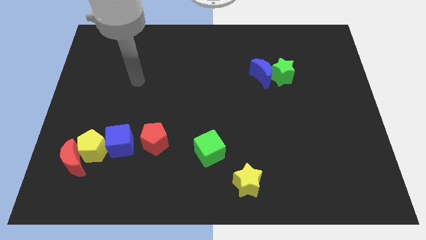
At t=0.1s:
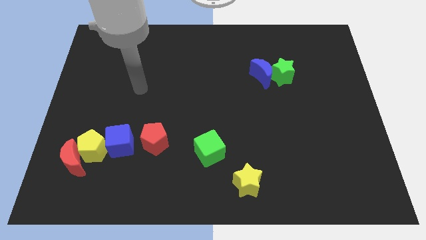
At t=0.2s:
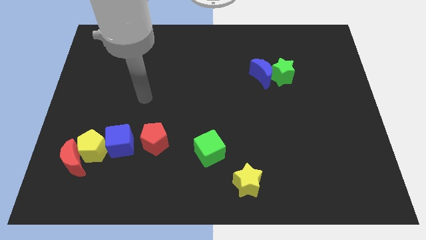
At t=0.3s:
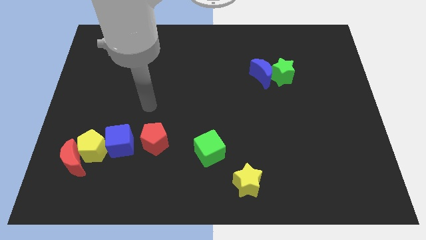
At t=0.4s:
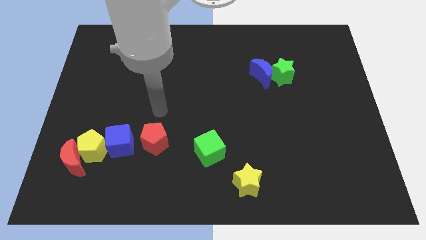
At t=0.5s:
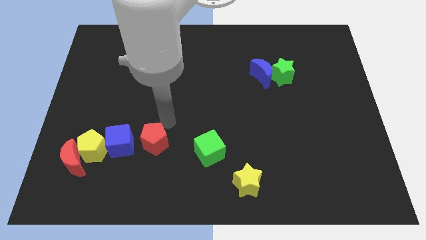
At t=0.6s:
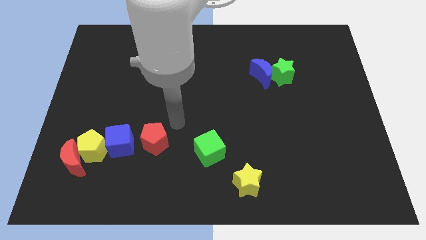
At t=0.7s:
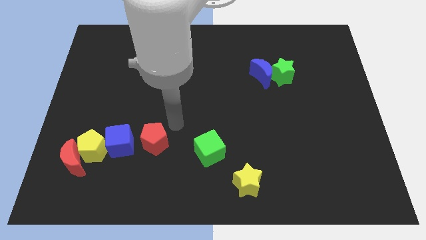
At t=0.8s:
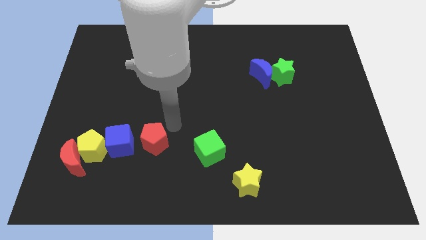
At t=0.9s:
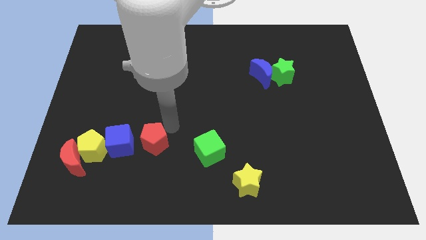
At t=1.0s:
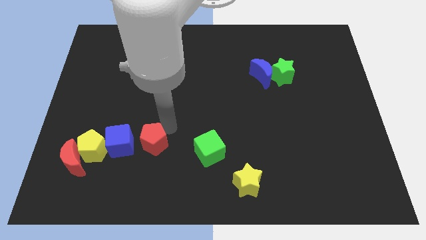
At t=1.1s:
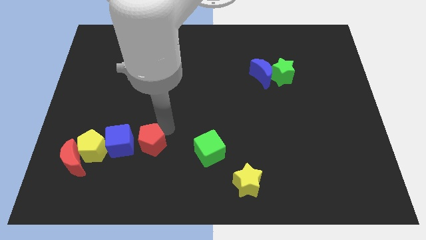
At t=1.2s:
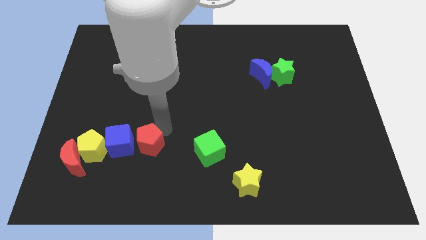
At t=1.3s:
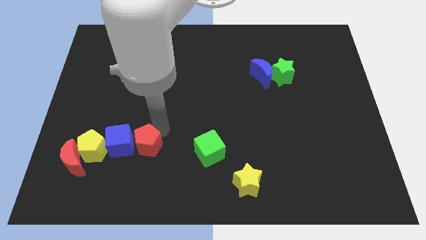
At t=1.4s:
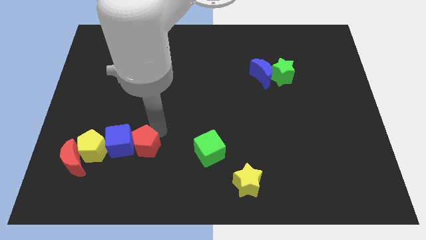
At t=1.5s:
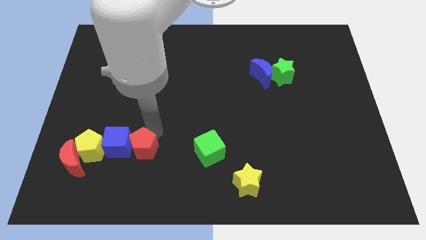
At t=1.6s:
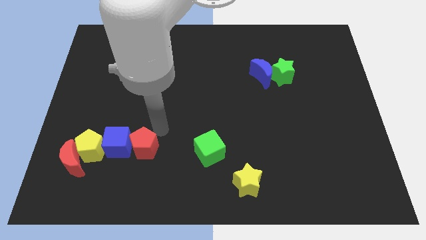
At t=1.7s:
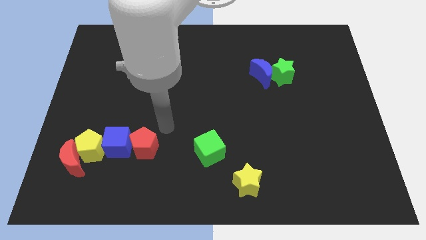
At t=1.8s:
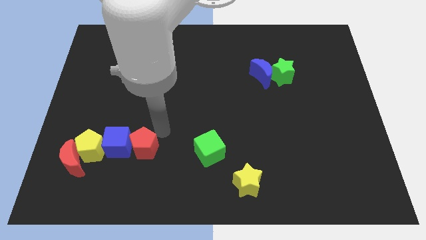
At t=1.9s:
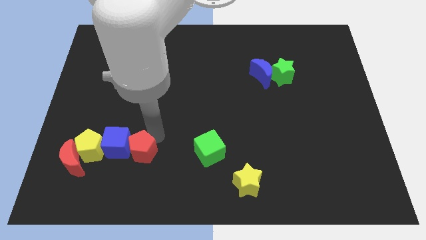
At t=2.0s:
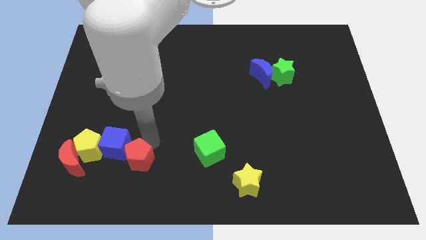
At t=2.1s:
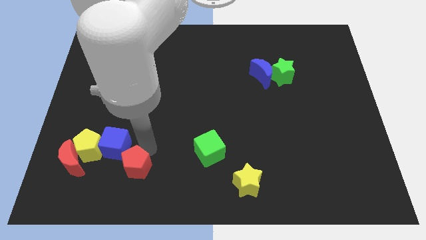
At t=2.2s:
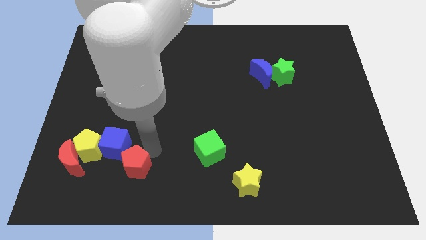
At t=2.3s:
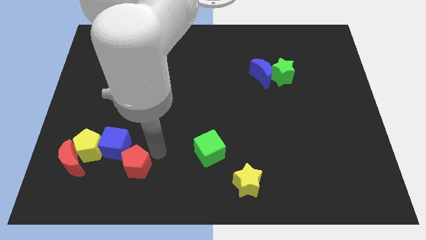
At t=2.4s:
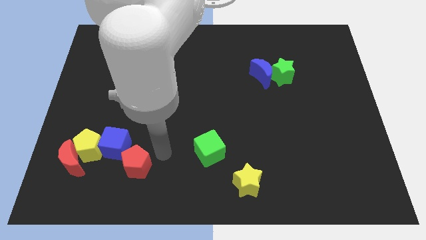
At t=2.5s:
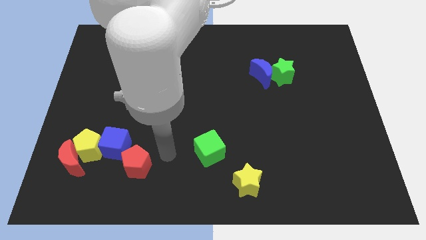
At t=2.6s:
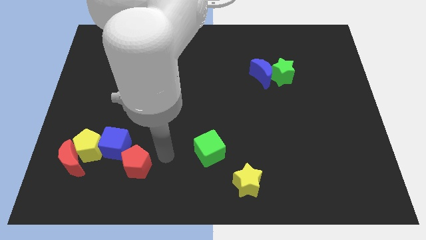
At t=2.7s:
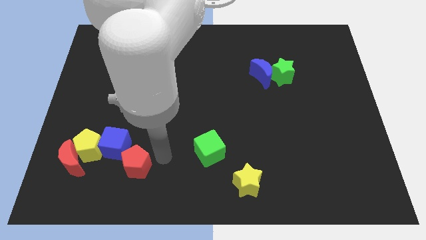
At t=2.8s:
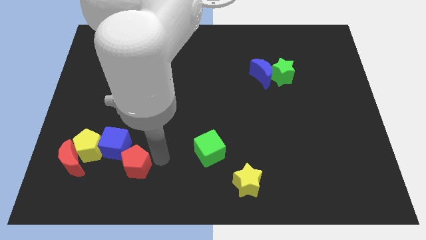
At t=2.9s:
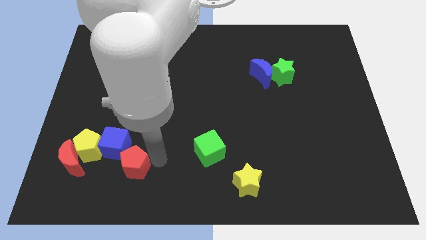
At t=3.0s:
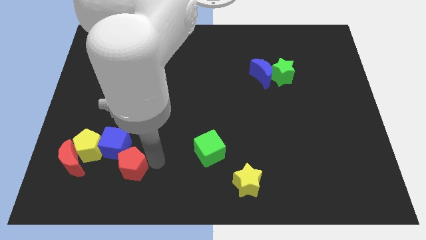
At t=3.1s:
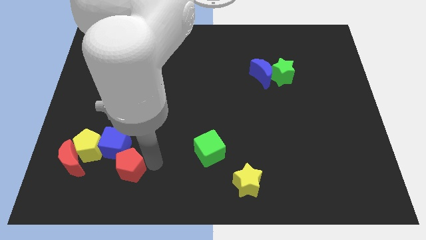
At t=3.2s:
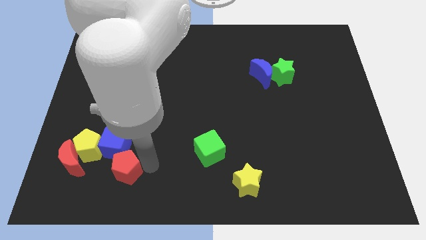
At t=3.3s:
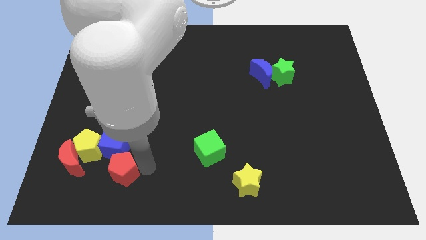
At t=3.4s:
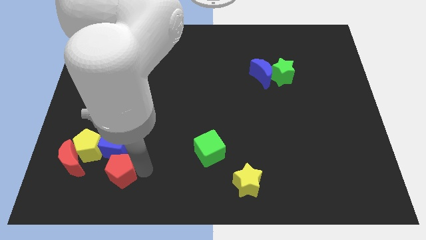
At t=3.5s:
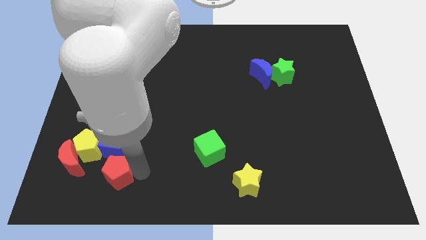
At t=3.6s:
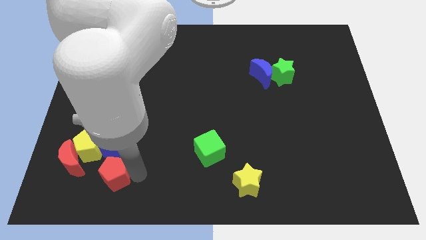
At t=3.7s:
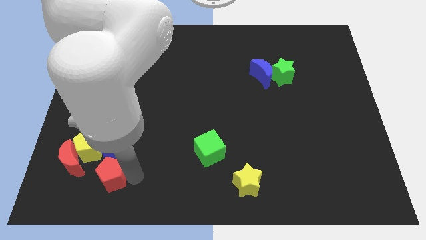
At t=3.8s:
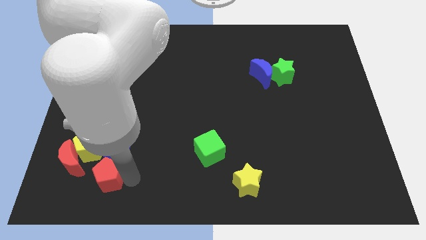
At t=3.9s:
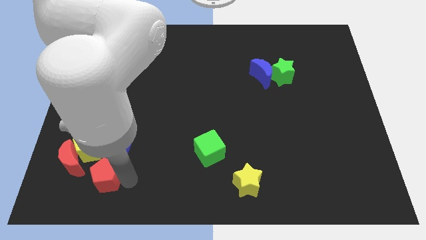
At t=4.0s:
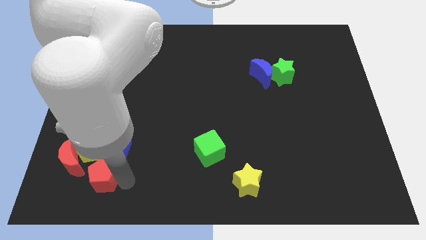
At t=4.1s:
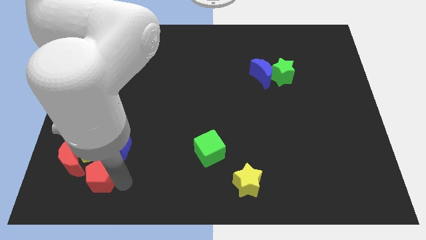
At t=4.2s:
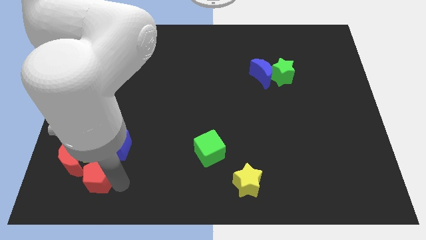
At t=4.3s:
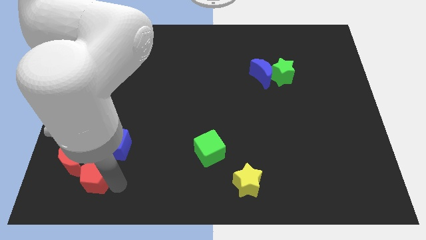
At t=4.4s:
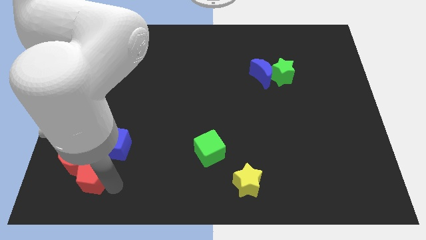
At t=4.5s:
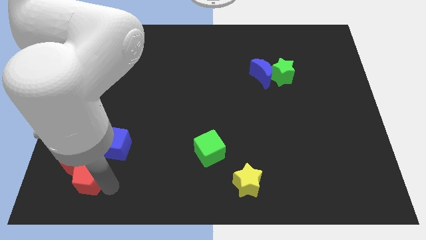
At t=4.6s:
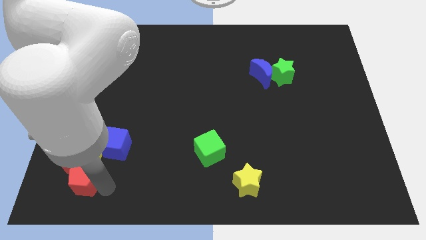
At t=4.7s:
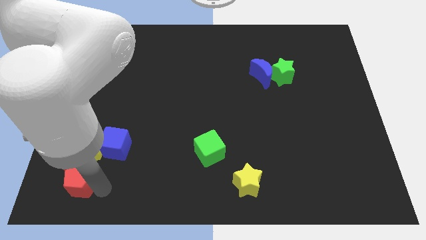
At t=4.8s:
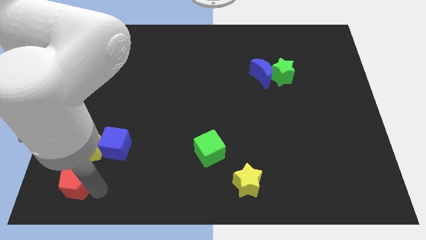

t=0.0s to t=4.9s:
push the red pentagon towards the red moon

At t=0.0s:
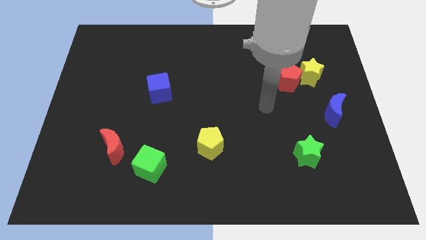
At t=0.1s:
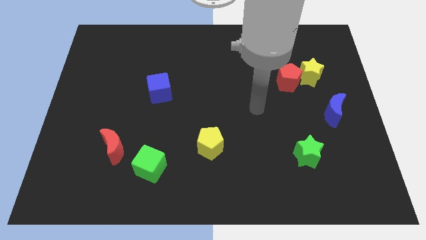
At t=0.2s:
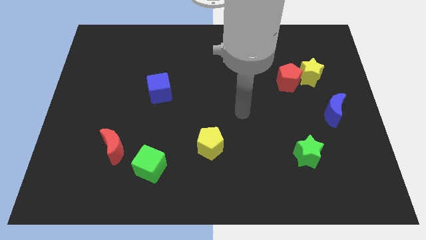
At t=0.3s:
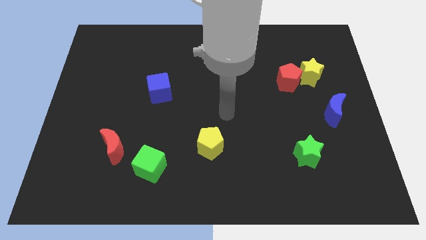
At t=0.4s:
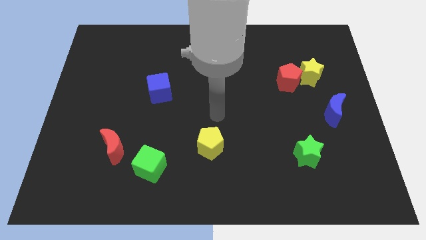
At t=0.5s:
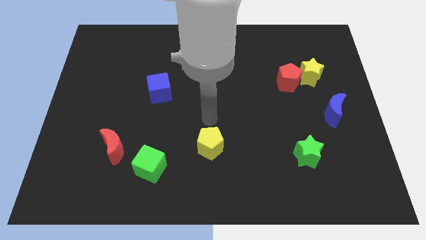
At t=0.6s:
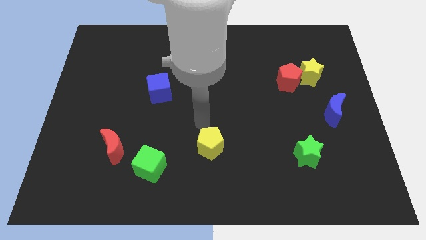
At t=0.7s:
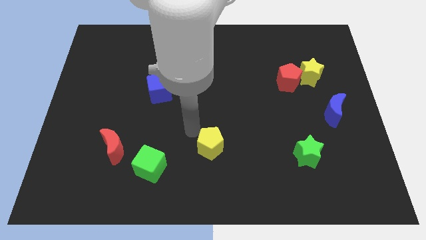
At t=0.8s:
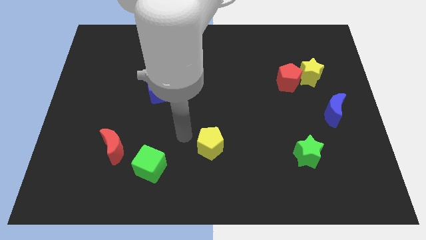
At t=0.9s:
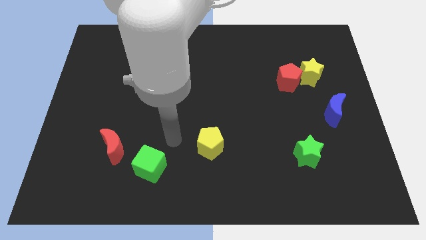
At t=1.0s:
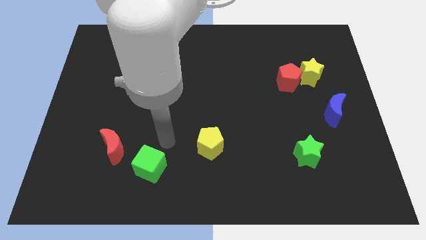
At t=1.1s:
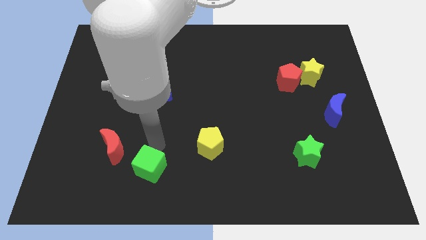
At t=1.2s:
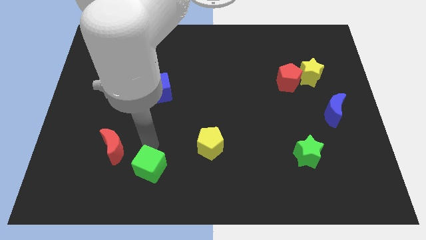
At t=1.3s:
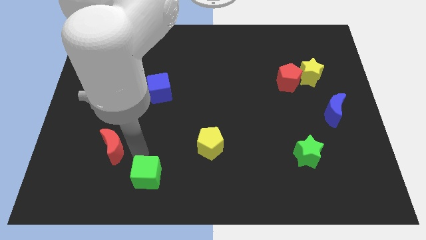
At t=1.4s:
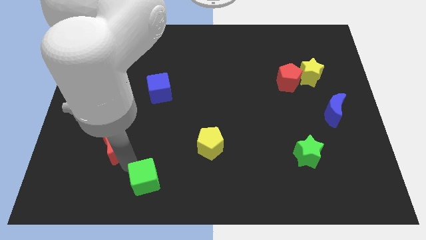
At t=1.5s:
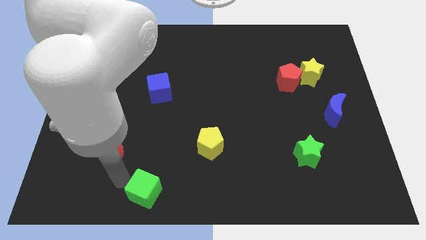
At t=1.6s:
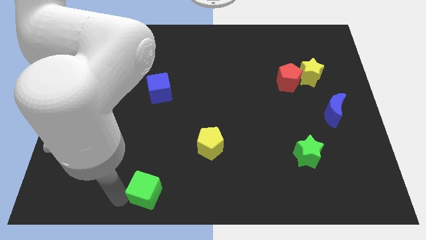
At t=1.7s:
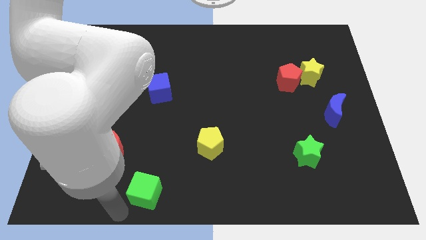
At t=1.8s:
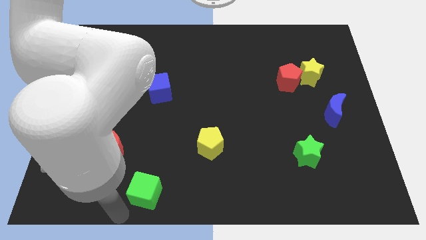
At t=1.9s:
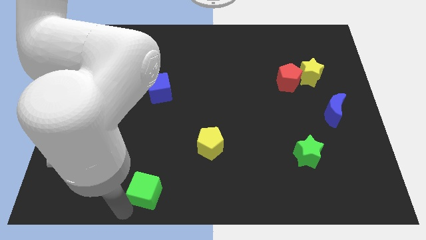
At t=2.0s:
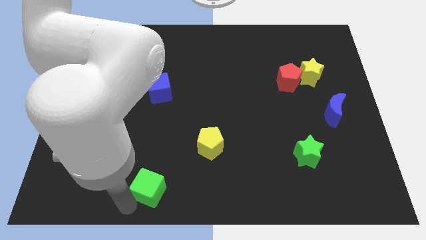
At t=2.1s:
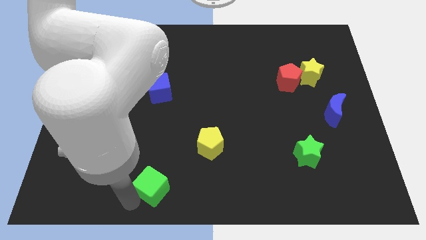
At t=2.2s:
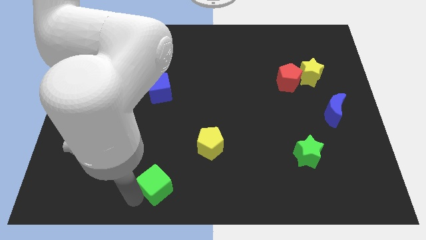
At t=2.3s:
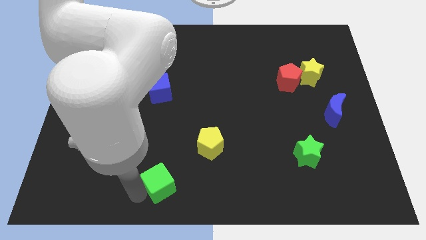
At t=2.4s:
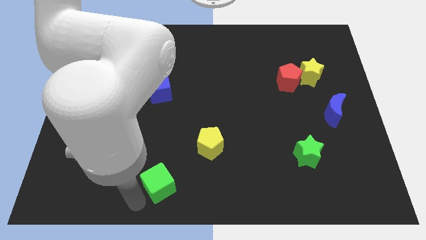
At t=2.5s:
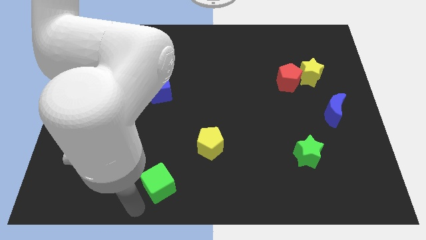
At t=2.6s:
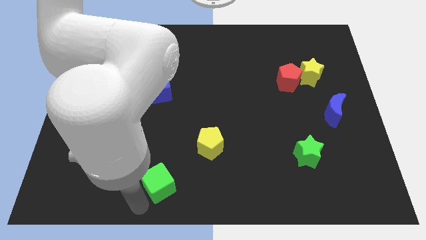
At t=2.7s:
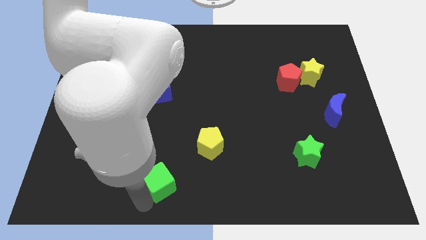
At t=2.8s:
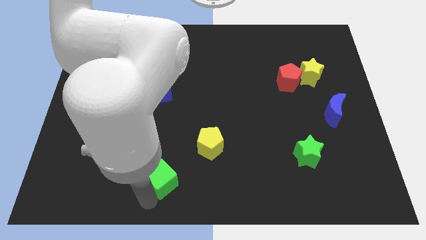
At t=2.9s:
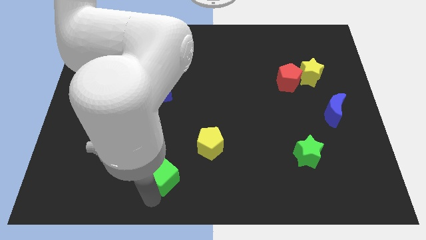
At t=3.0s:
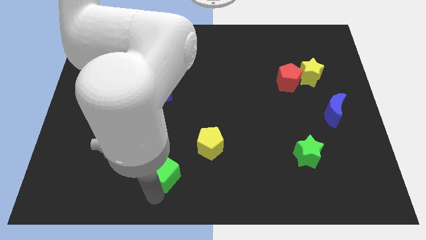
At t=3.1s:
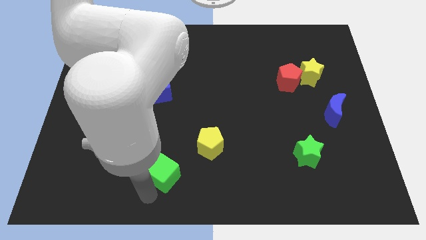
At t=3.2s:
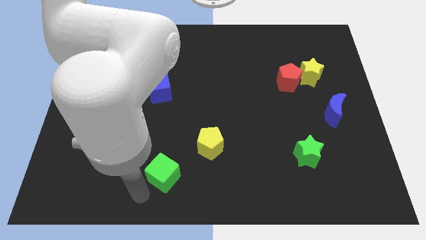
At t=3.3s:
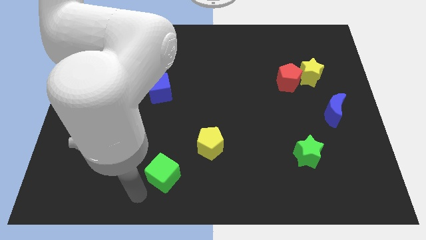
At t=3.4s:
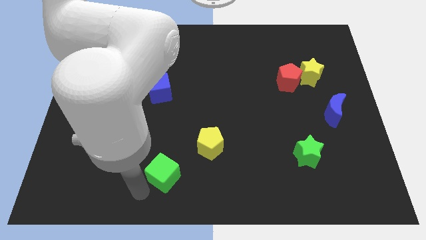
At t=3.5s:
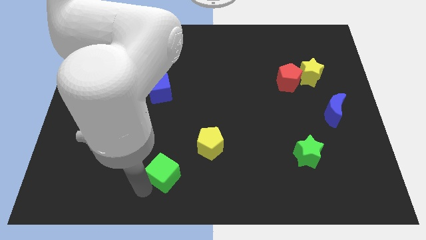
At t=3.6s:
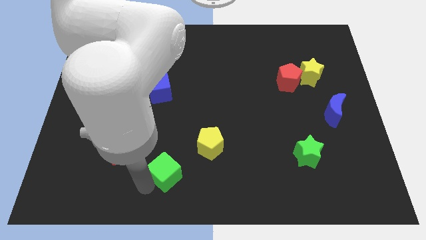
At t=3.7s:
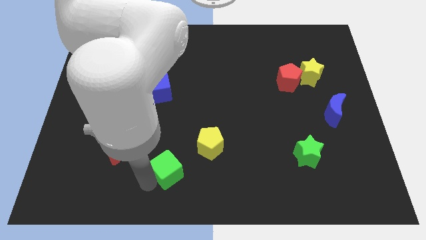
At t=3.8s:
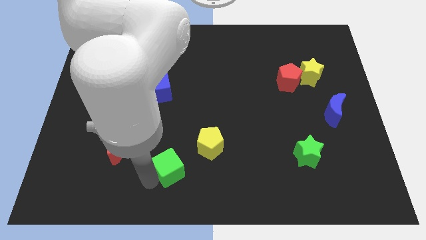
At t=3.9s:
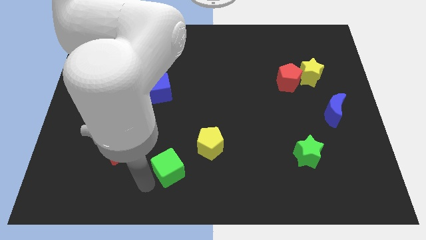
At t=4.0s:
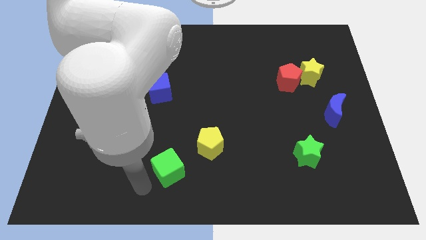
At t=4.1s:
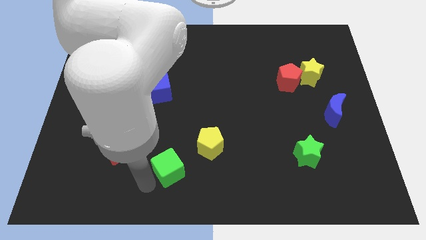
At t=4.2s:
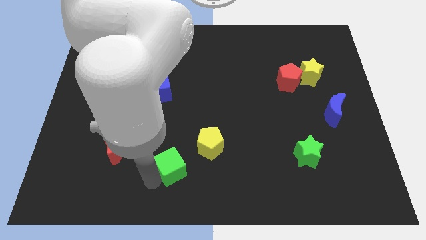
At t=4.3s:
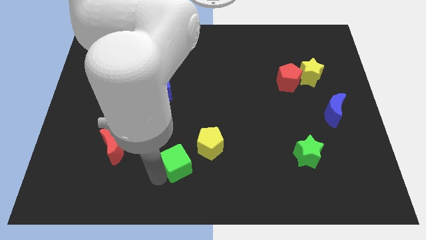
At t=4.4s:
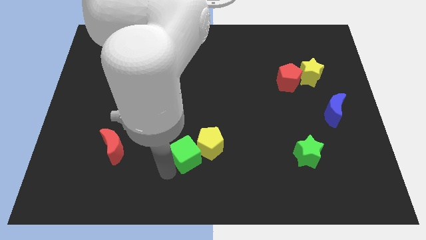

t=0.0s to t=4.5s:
move the green cube towards the yellow pentagon
